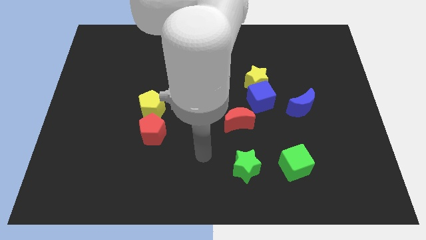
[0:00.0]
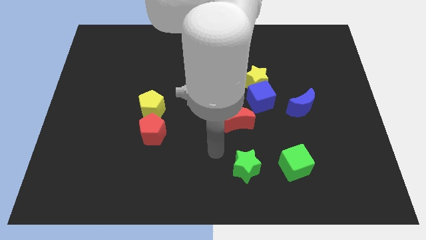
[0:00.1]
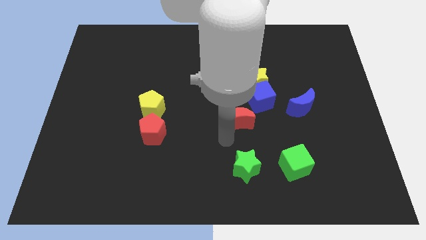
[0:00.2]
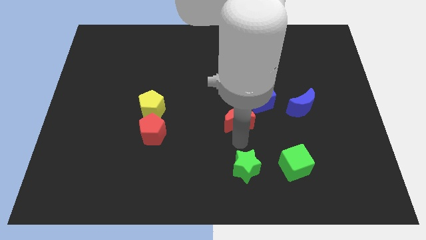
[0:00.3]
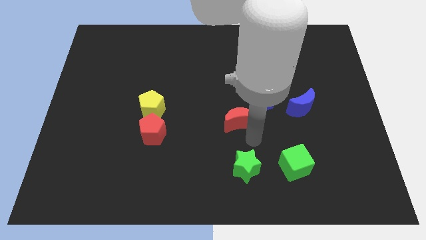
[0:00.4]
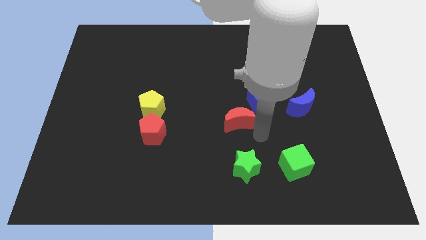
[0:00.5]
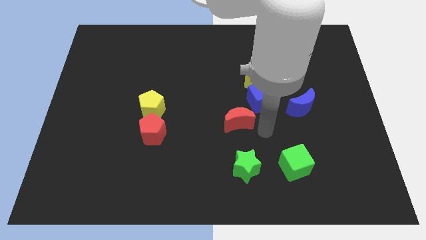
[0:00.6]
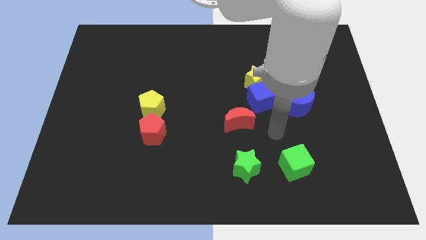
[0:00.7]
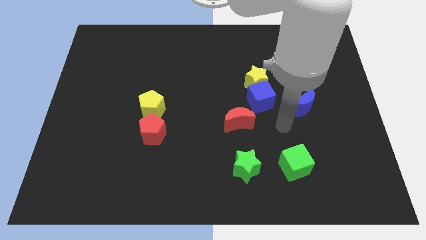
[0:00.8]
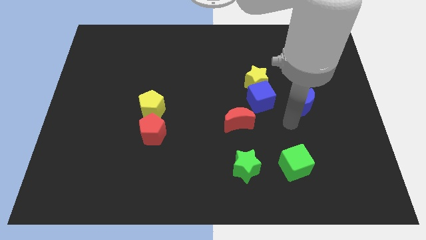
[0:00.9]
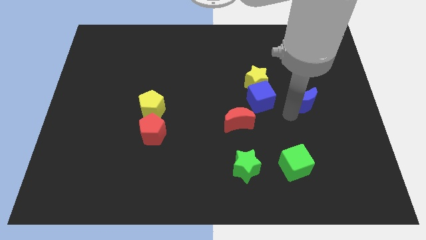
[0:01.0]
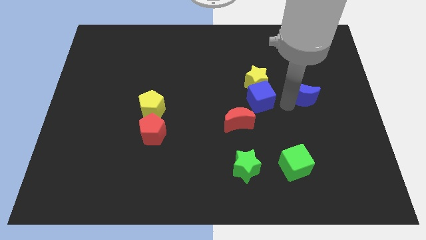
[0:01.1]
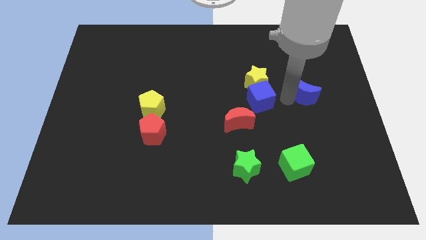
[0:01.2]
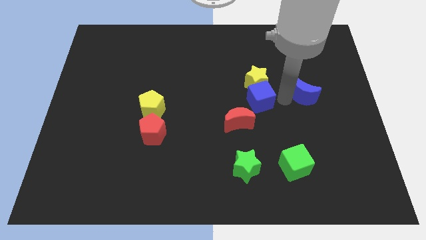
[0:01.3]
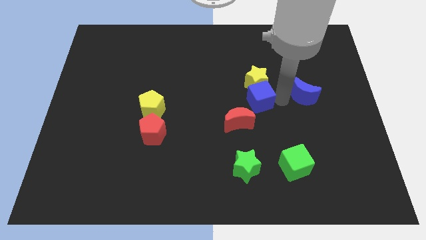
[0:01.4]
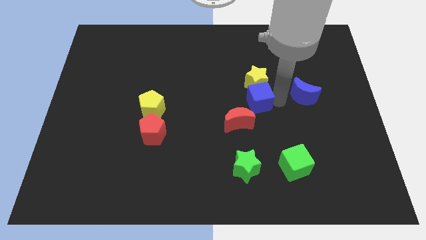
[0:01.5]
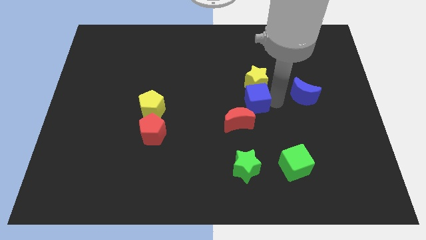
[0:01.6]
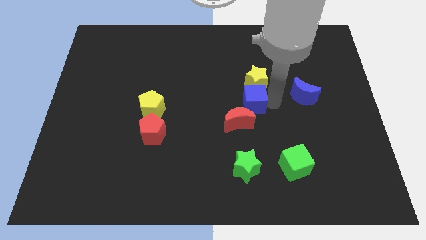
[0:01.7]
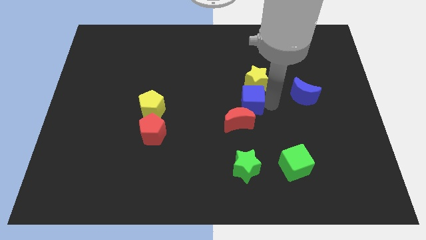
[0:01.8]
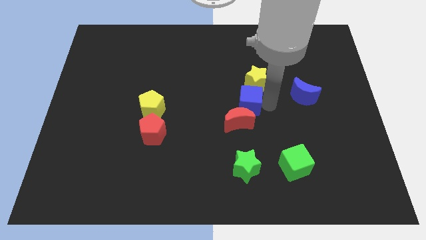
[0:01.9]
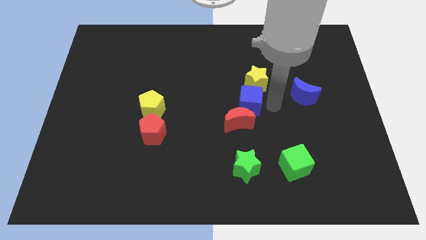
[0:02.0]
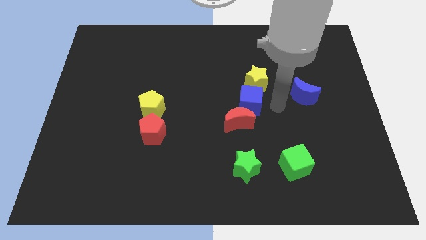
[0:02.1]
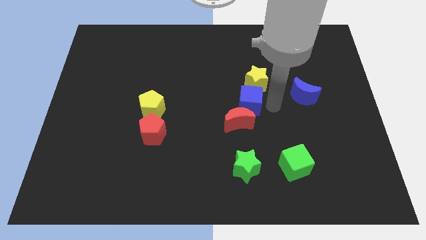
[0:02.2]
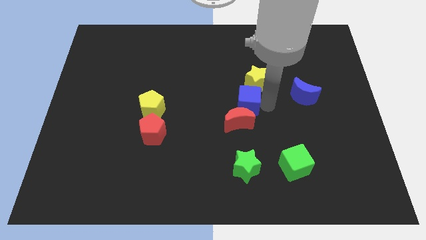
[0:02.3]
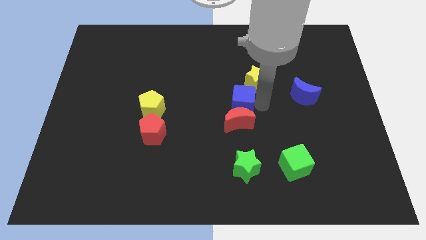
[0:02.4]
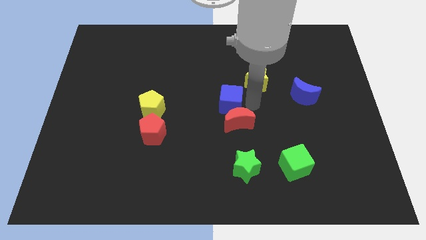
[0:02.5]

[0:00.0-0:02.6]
push the blue cube left slightly

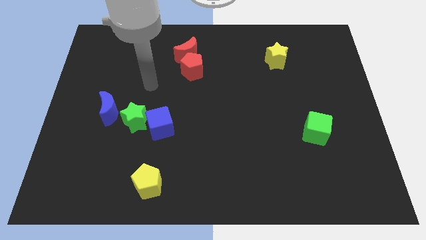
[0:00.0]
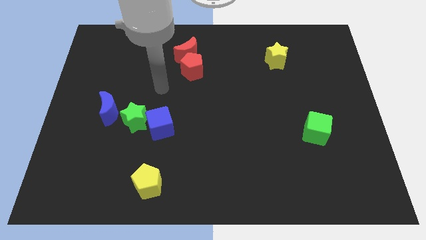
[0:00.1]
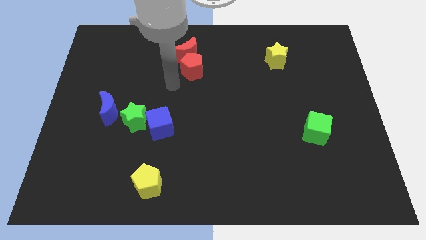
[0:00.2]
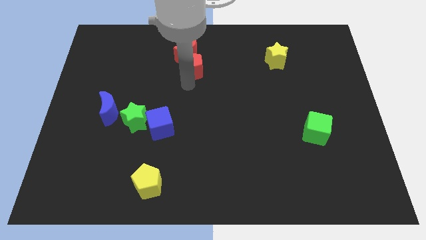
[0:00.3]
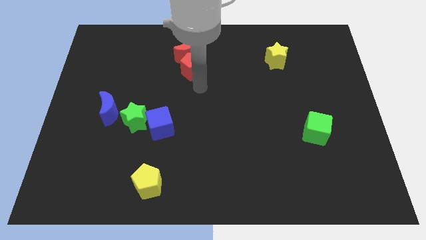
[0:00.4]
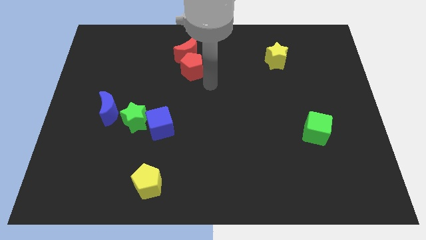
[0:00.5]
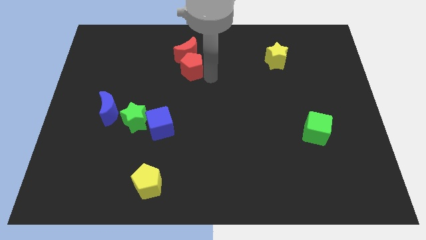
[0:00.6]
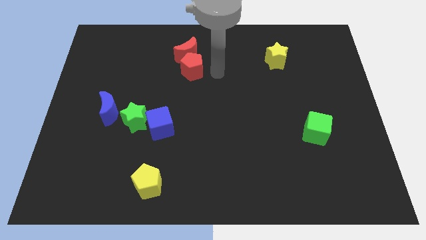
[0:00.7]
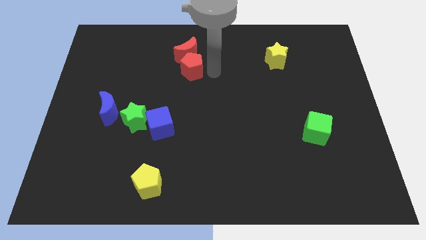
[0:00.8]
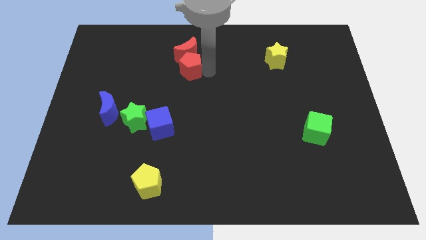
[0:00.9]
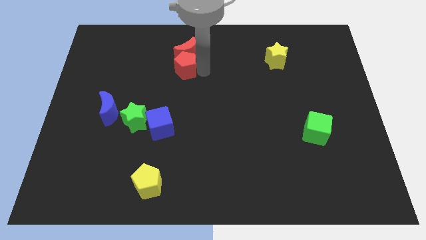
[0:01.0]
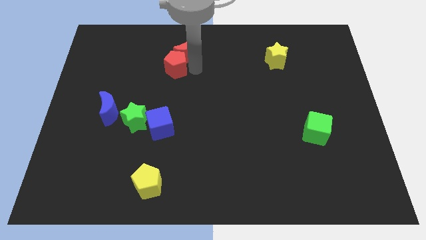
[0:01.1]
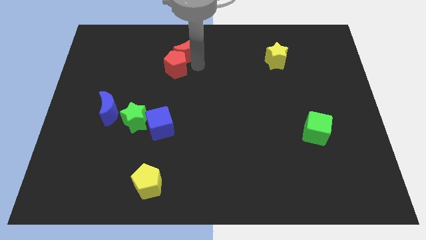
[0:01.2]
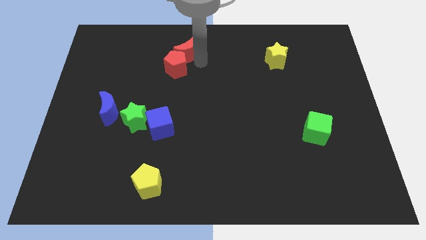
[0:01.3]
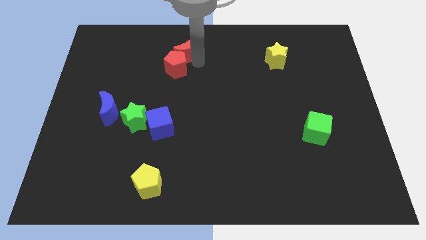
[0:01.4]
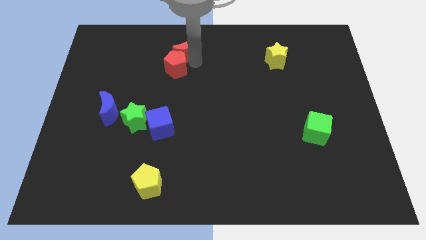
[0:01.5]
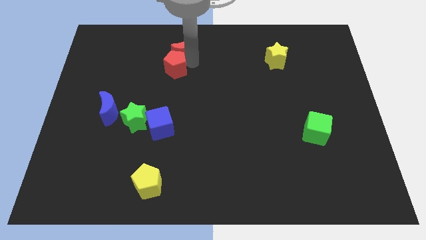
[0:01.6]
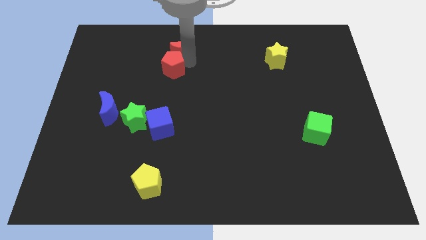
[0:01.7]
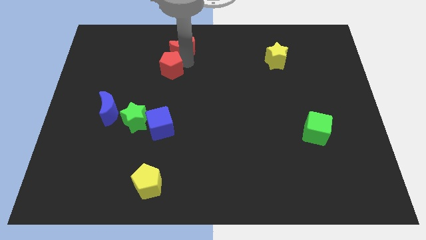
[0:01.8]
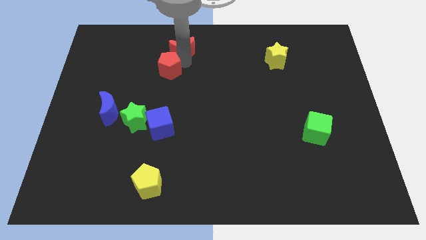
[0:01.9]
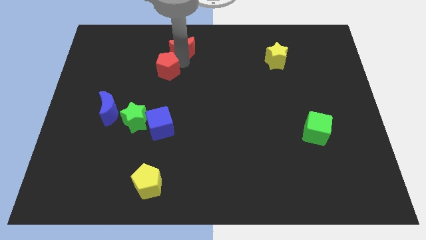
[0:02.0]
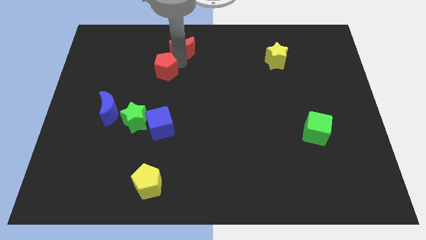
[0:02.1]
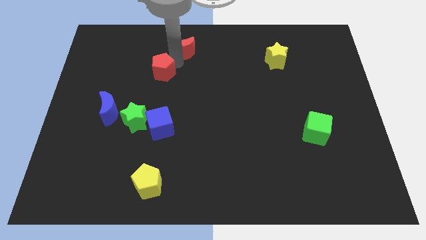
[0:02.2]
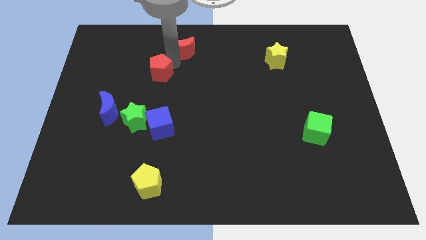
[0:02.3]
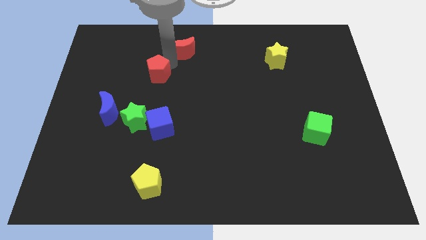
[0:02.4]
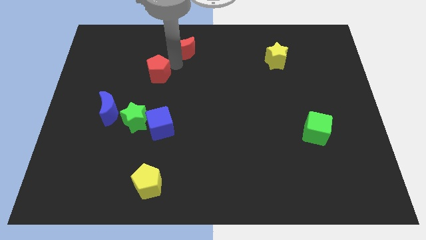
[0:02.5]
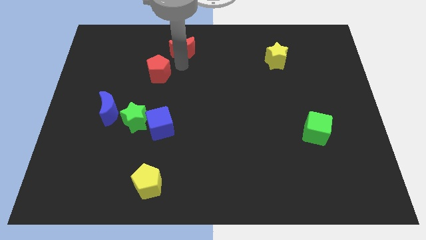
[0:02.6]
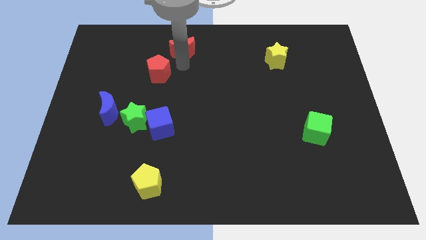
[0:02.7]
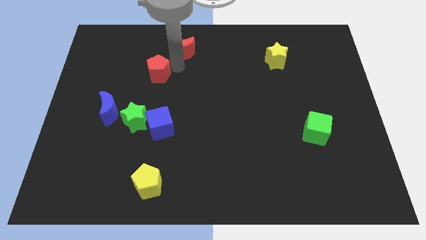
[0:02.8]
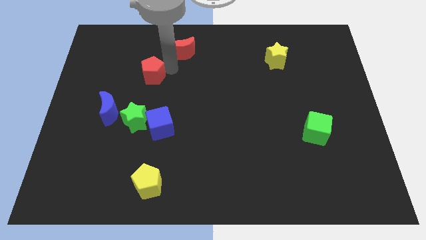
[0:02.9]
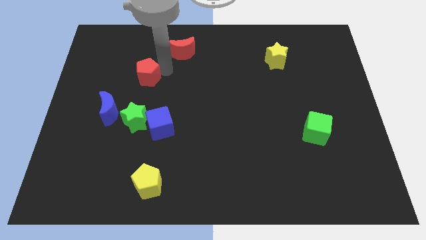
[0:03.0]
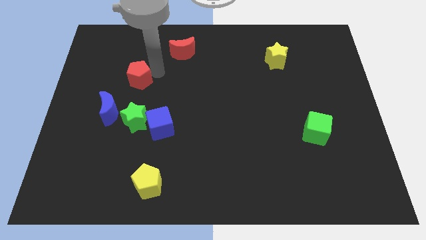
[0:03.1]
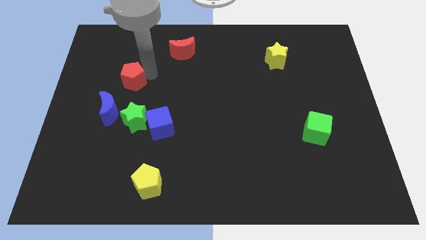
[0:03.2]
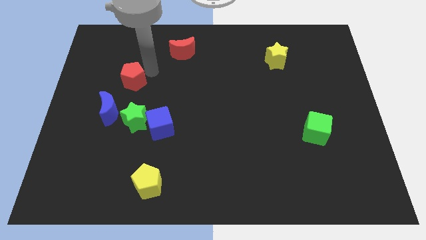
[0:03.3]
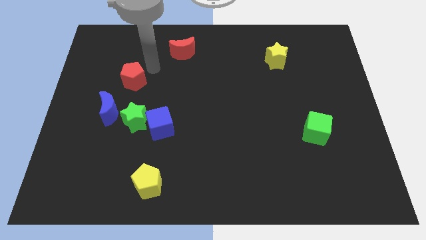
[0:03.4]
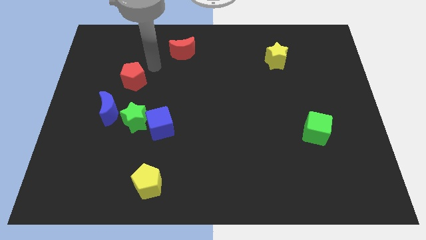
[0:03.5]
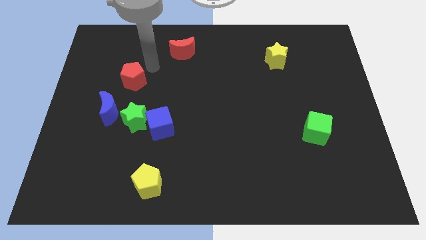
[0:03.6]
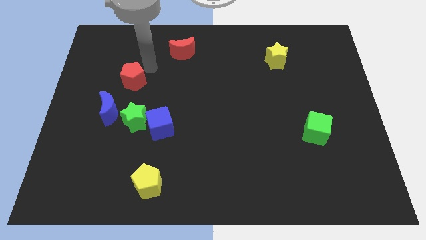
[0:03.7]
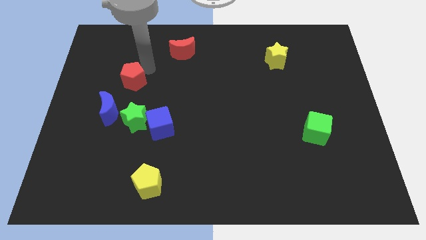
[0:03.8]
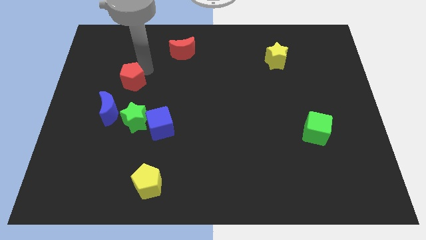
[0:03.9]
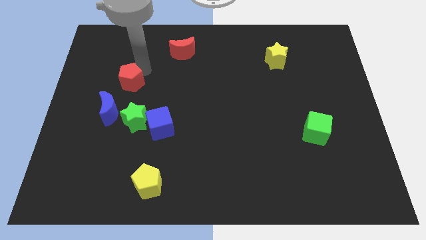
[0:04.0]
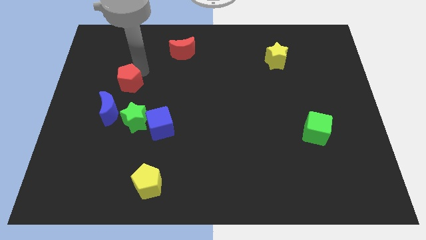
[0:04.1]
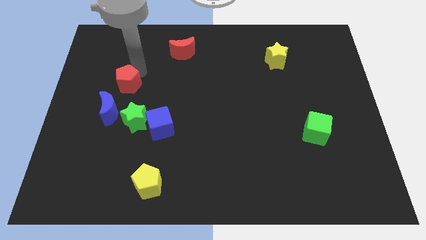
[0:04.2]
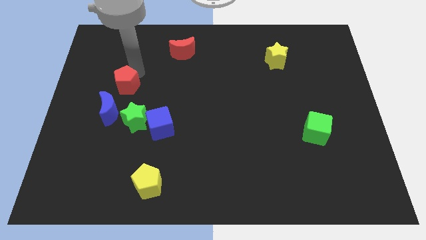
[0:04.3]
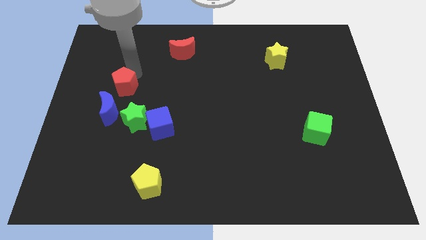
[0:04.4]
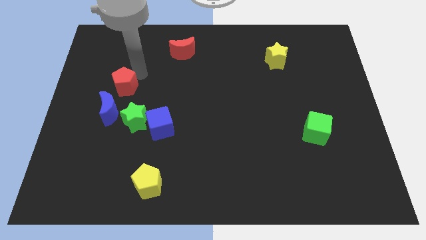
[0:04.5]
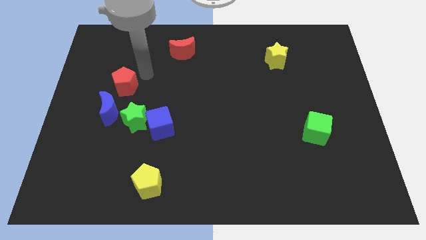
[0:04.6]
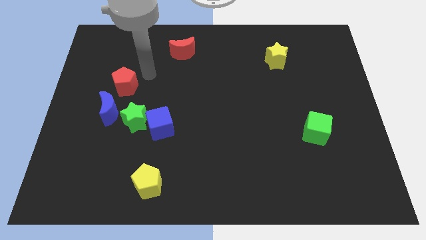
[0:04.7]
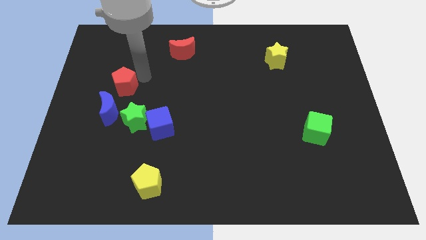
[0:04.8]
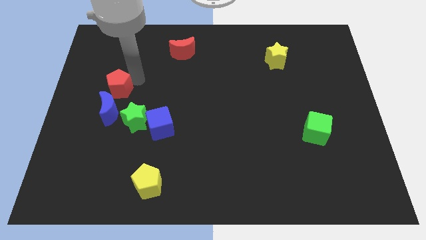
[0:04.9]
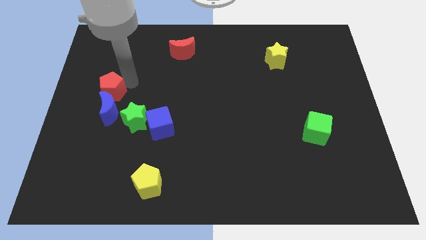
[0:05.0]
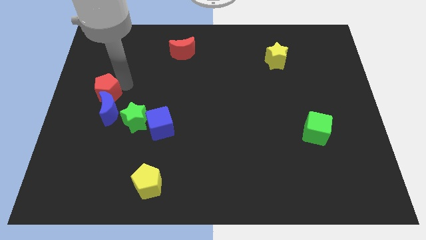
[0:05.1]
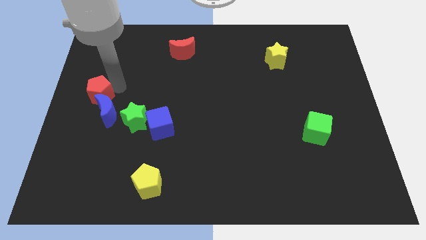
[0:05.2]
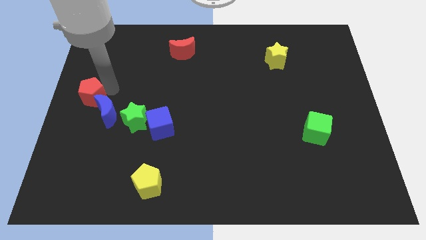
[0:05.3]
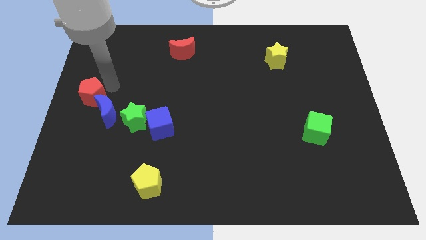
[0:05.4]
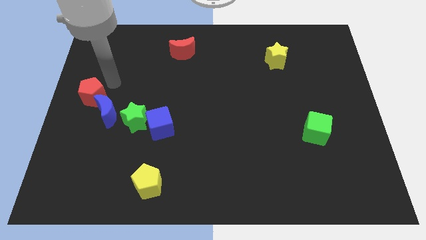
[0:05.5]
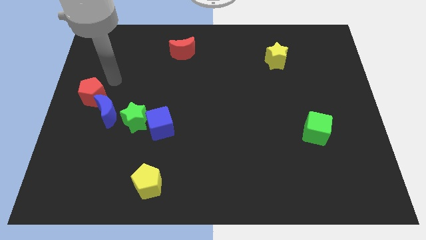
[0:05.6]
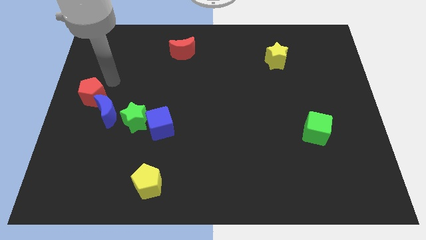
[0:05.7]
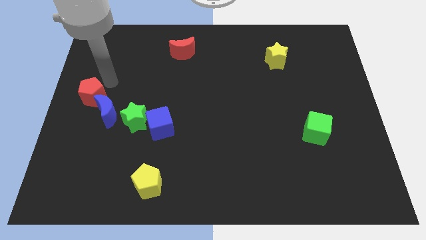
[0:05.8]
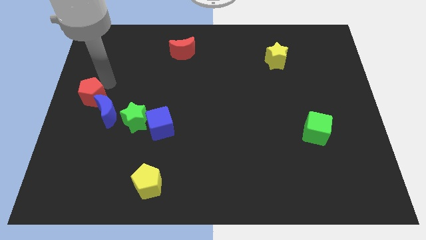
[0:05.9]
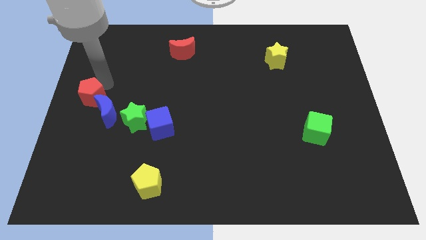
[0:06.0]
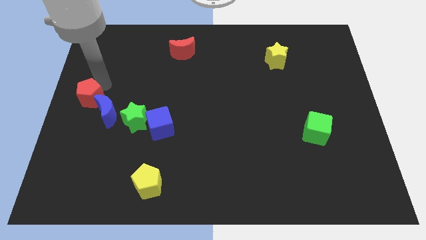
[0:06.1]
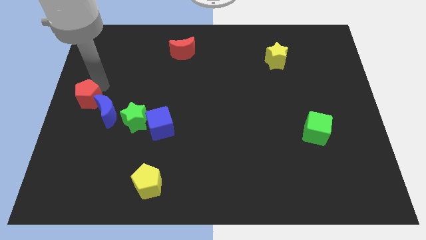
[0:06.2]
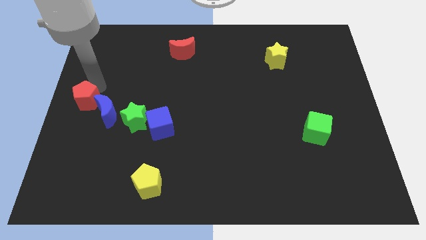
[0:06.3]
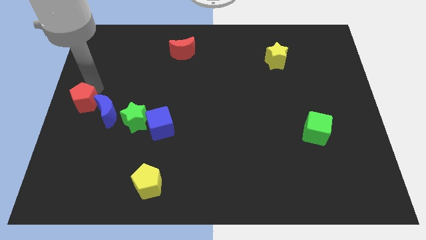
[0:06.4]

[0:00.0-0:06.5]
move the red pentagon downwards and to the left diagonally
